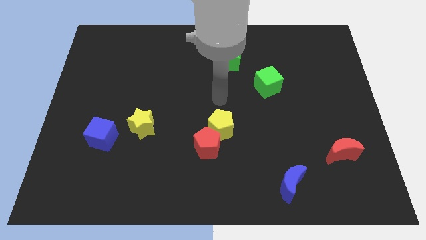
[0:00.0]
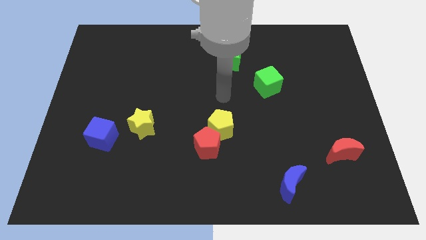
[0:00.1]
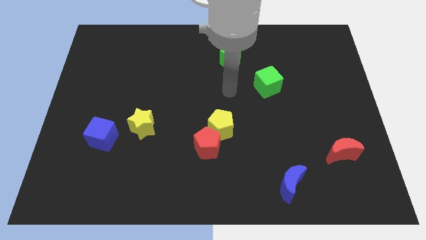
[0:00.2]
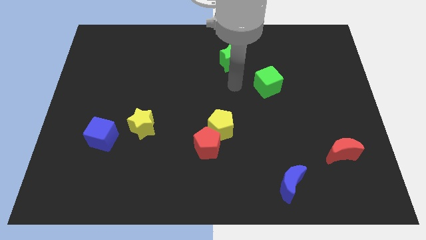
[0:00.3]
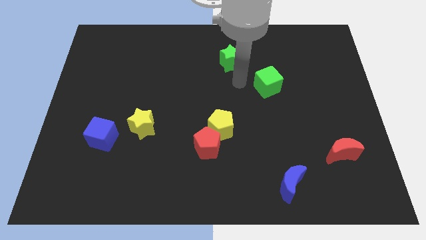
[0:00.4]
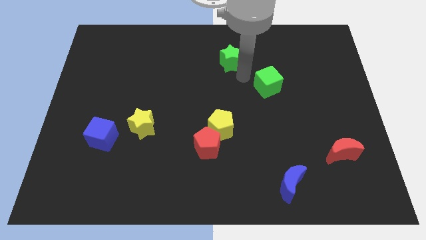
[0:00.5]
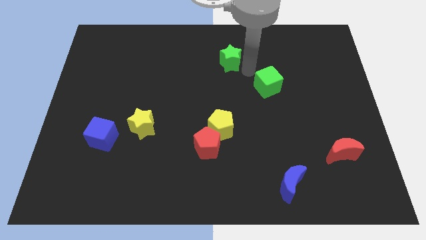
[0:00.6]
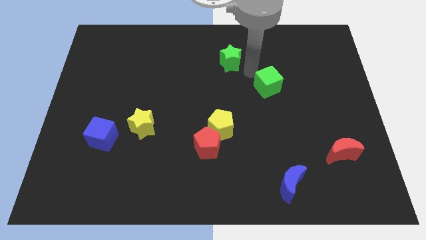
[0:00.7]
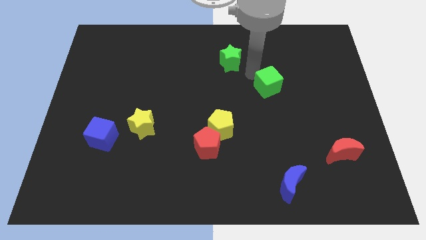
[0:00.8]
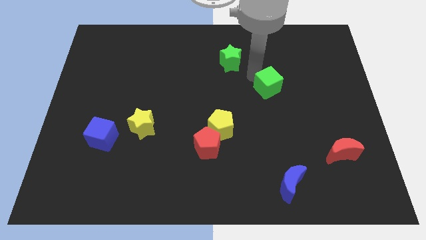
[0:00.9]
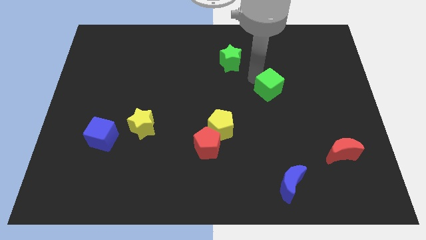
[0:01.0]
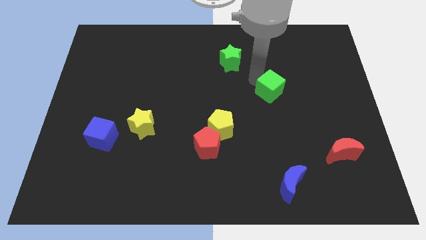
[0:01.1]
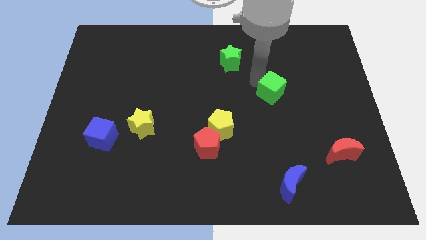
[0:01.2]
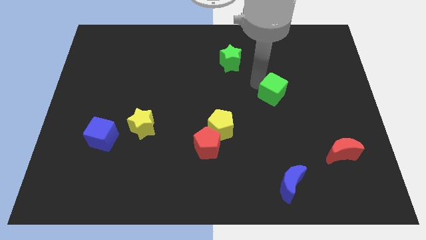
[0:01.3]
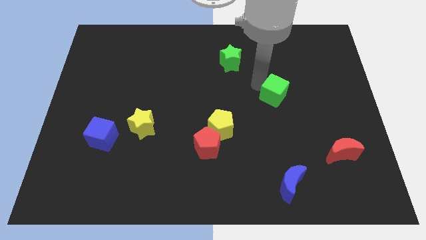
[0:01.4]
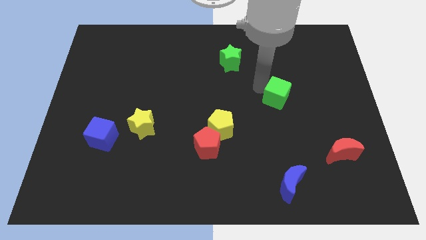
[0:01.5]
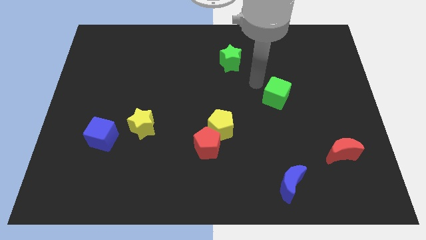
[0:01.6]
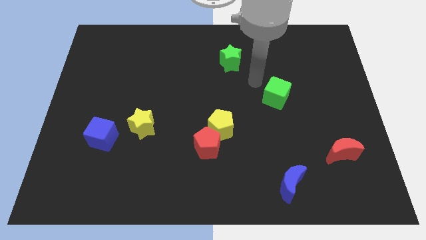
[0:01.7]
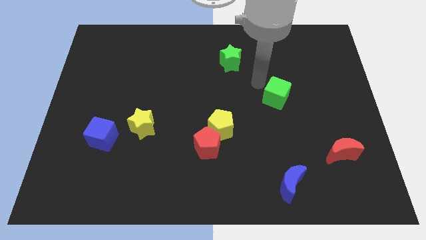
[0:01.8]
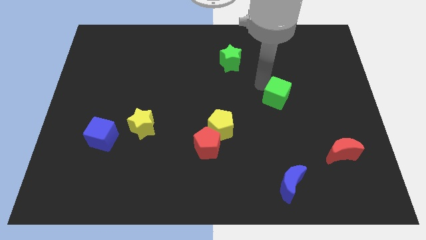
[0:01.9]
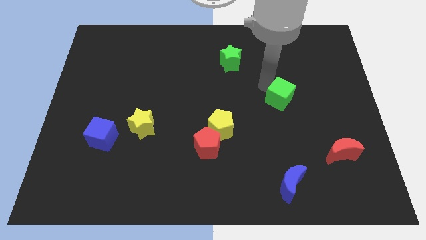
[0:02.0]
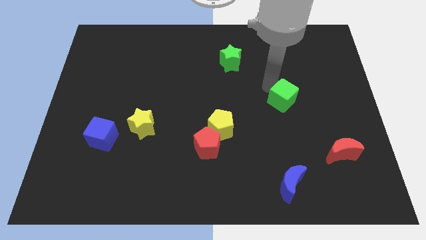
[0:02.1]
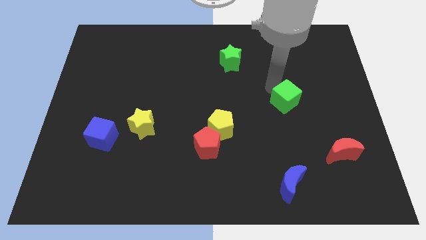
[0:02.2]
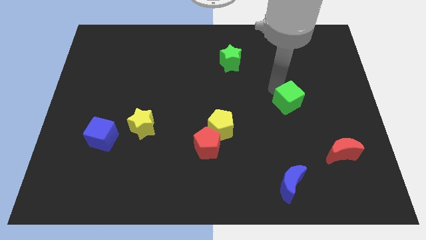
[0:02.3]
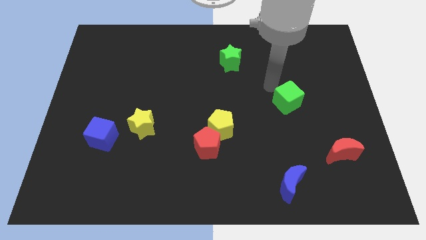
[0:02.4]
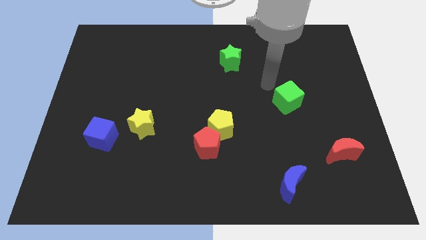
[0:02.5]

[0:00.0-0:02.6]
move the green cube diagonally down and to the right a little

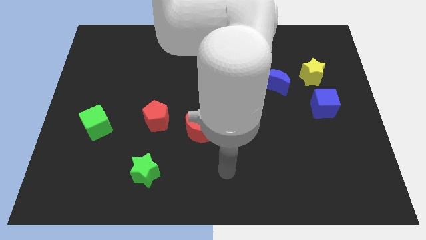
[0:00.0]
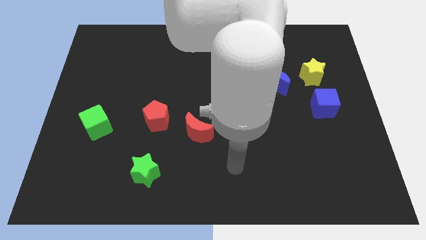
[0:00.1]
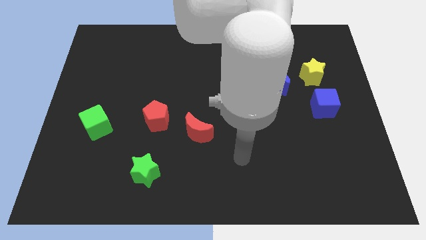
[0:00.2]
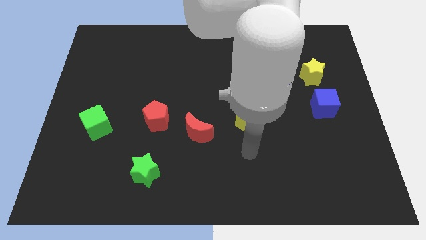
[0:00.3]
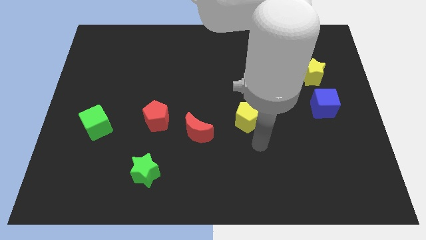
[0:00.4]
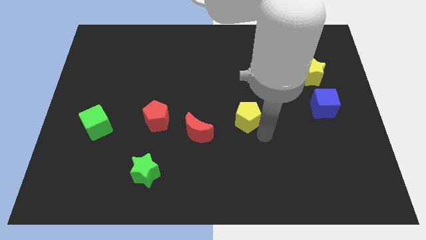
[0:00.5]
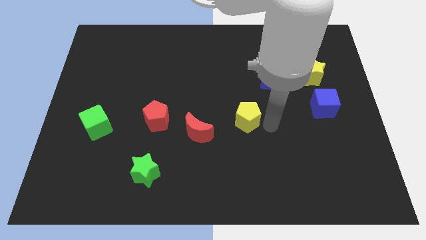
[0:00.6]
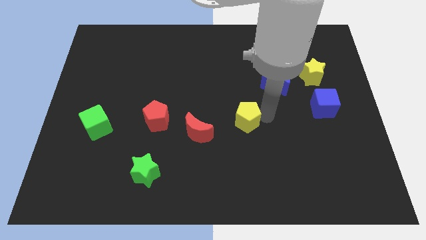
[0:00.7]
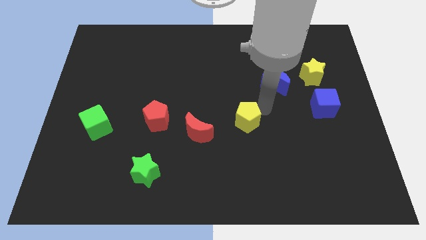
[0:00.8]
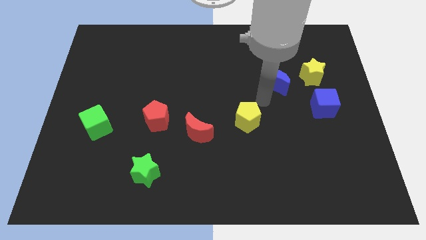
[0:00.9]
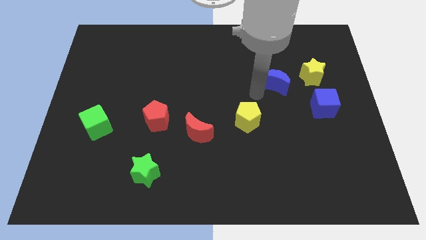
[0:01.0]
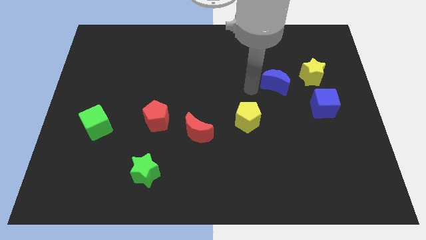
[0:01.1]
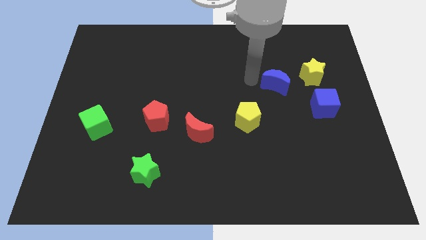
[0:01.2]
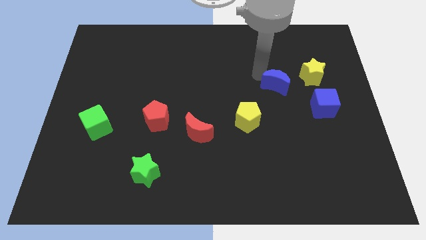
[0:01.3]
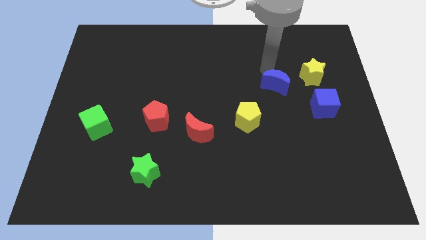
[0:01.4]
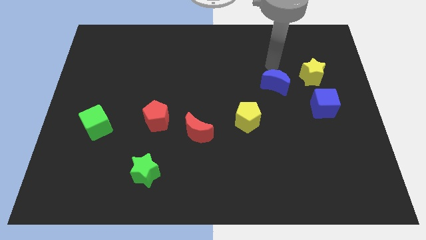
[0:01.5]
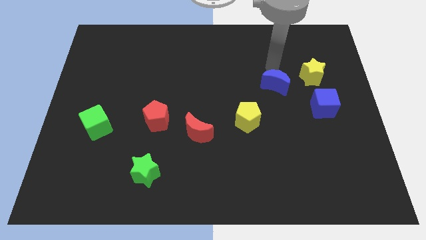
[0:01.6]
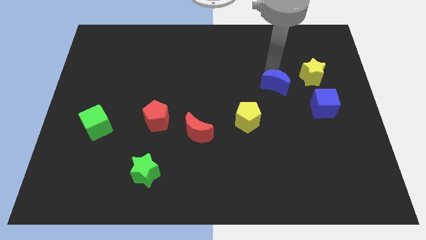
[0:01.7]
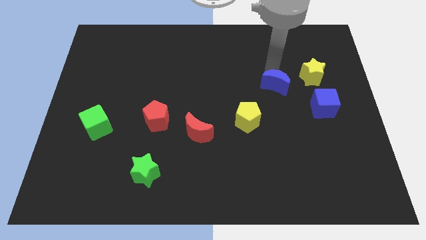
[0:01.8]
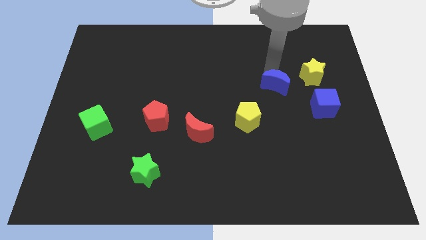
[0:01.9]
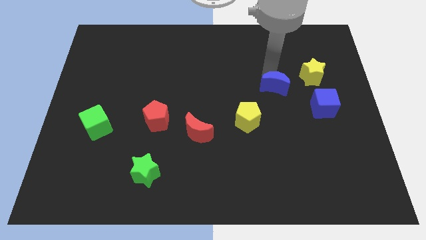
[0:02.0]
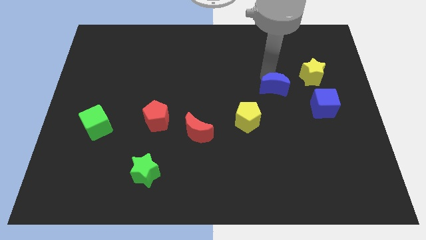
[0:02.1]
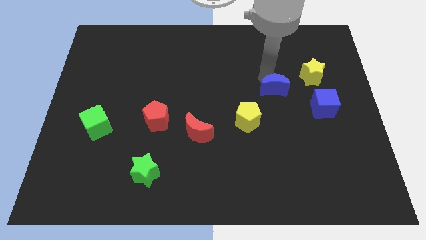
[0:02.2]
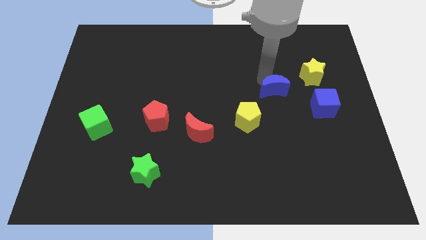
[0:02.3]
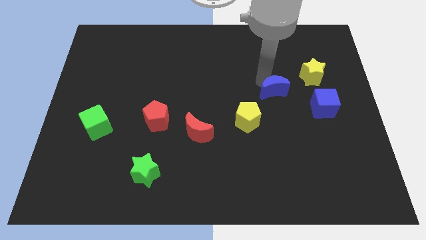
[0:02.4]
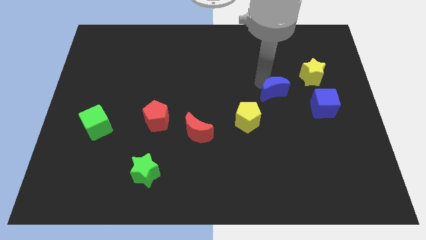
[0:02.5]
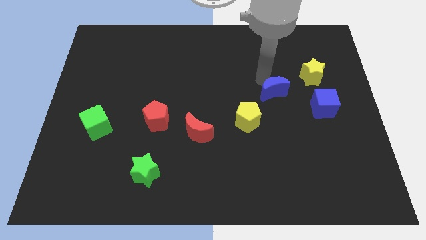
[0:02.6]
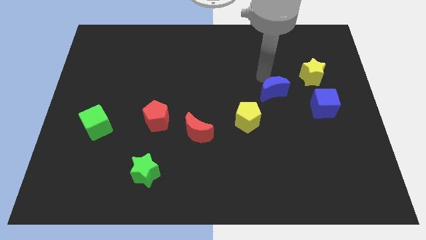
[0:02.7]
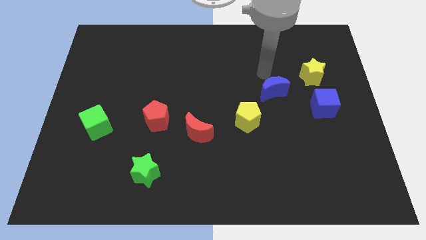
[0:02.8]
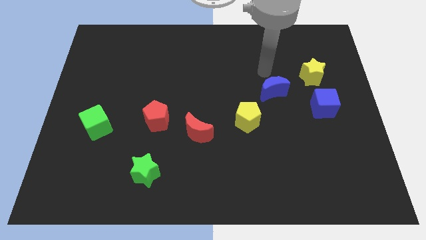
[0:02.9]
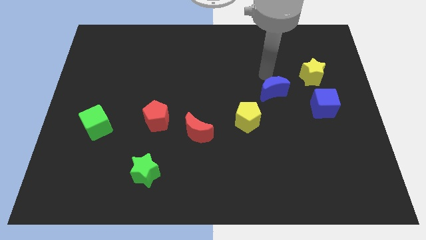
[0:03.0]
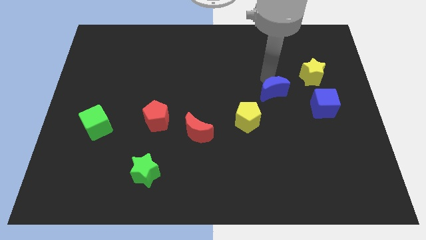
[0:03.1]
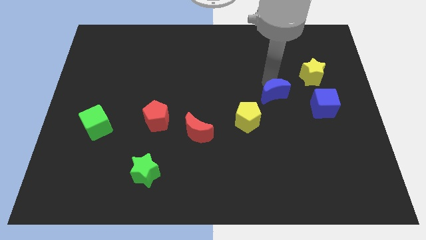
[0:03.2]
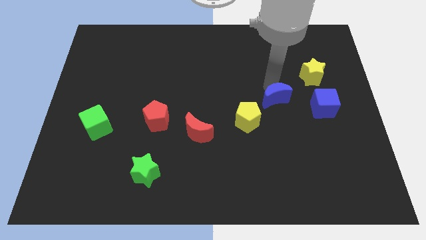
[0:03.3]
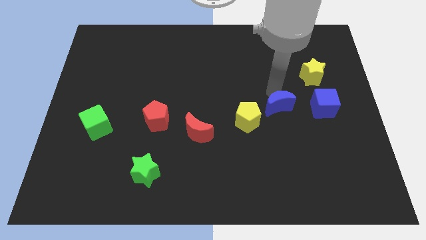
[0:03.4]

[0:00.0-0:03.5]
slide the blue moon downwards slightly

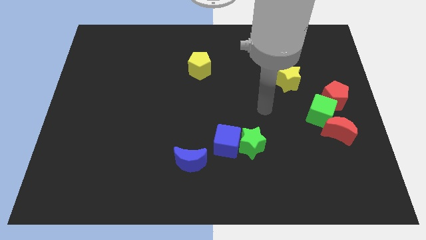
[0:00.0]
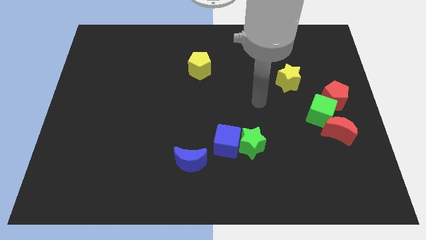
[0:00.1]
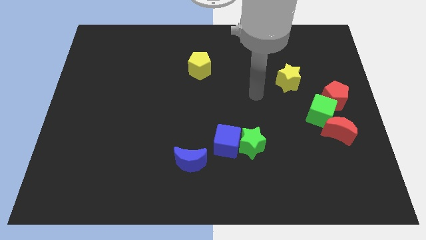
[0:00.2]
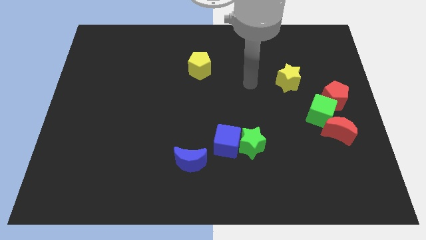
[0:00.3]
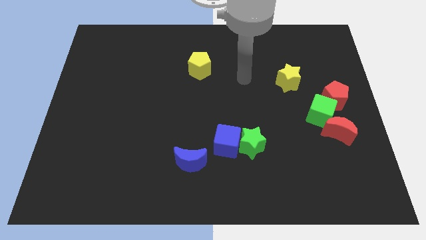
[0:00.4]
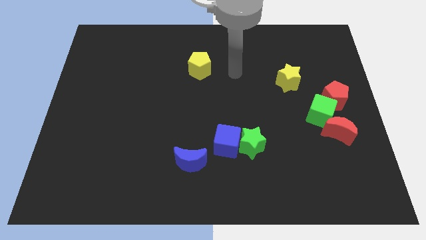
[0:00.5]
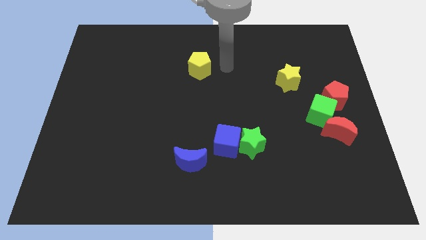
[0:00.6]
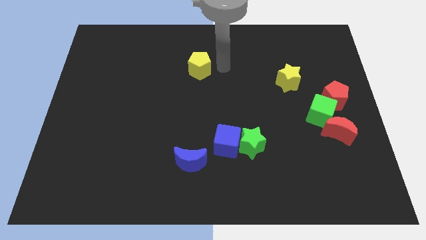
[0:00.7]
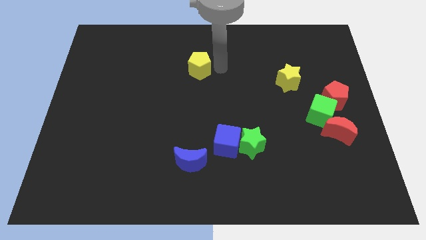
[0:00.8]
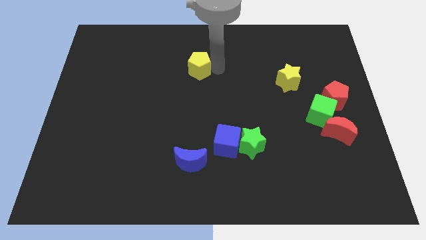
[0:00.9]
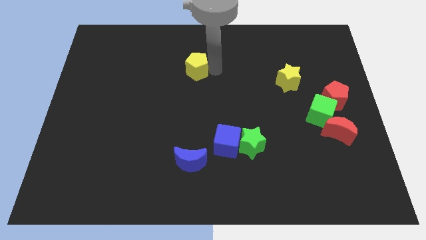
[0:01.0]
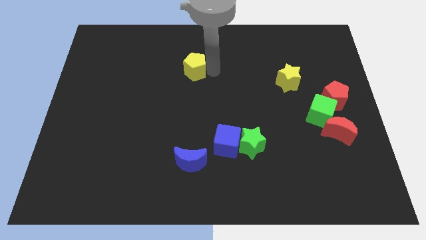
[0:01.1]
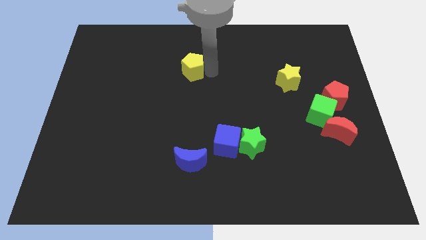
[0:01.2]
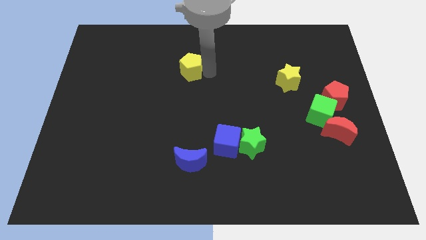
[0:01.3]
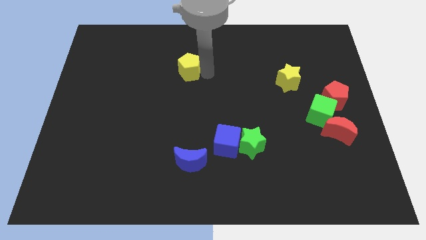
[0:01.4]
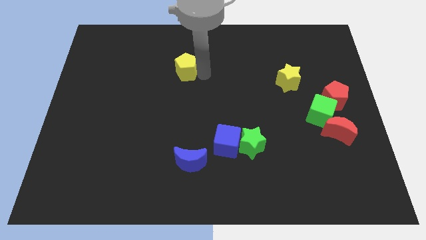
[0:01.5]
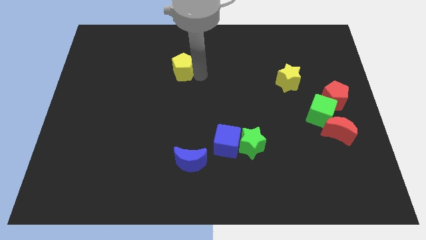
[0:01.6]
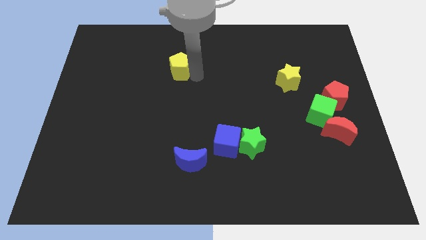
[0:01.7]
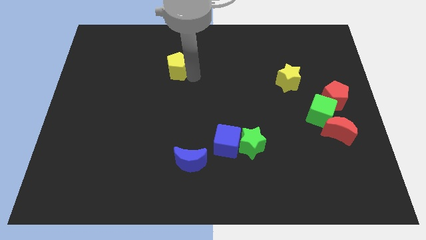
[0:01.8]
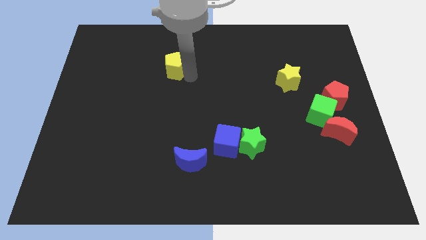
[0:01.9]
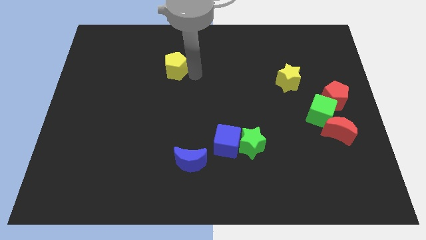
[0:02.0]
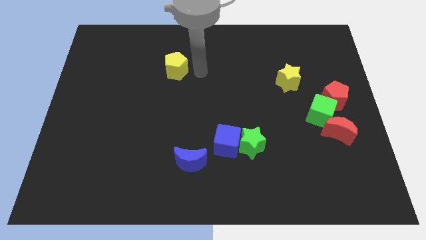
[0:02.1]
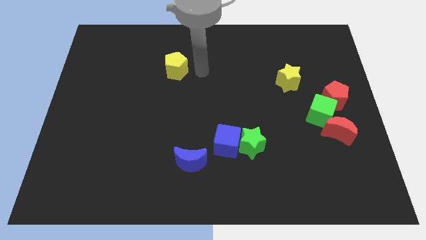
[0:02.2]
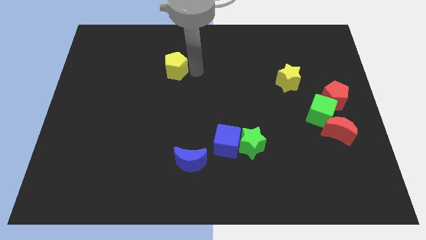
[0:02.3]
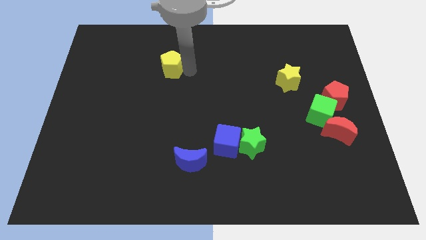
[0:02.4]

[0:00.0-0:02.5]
slide the yellow pentagon left a little
